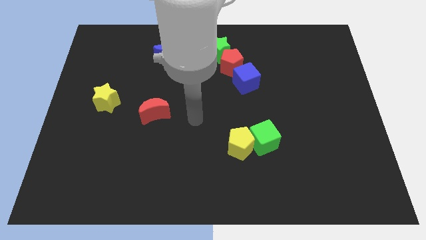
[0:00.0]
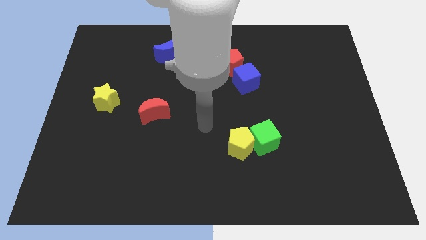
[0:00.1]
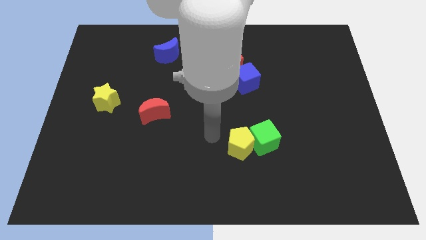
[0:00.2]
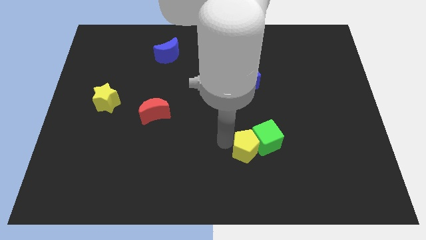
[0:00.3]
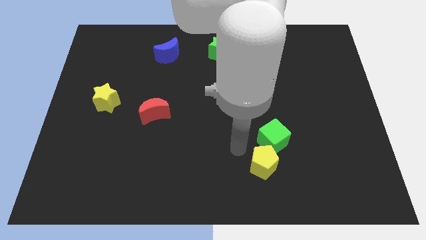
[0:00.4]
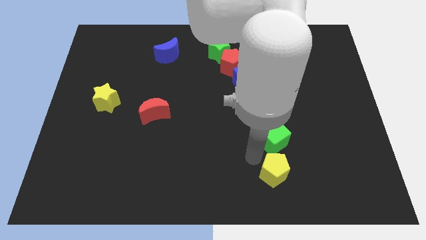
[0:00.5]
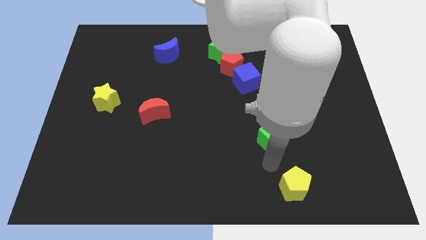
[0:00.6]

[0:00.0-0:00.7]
separate the green cube from the yellow pentagon

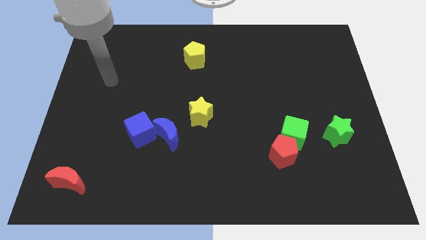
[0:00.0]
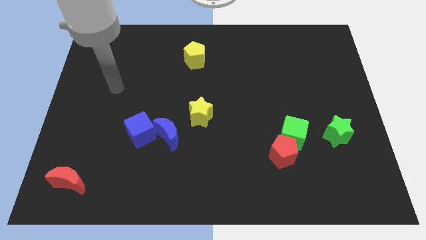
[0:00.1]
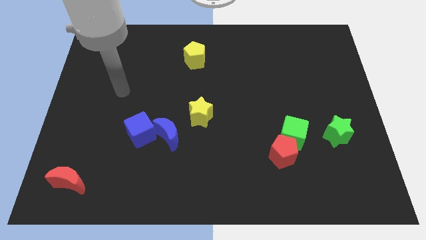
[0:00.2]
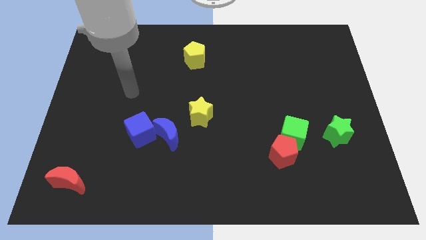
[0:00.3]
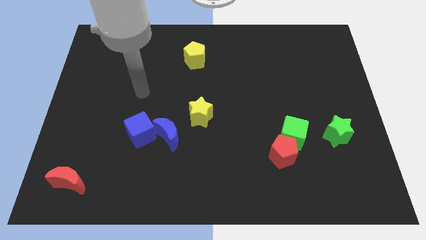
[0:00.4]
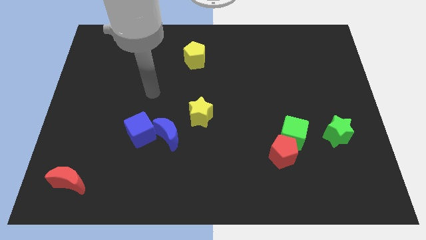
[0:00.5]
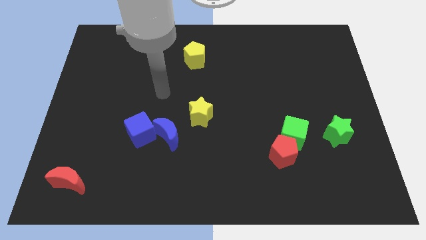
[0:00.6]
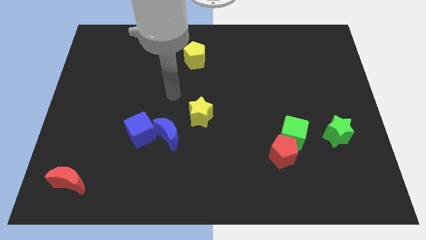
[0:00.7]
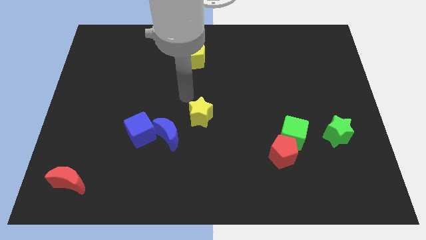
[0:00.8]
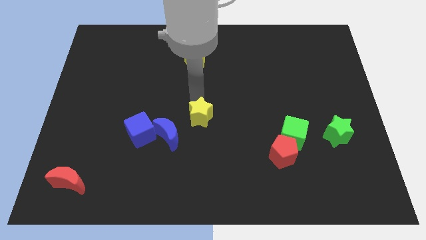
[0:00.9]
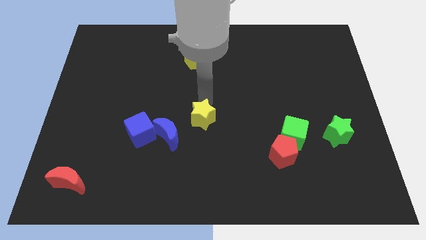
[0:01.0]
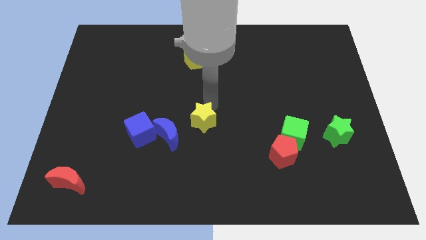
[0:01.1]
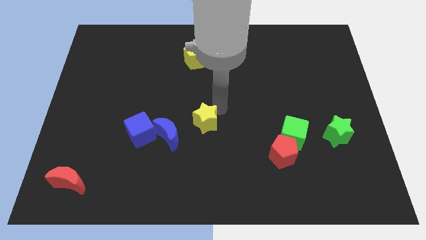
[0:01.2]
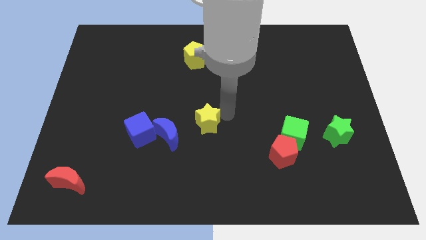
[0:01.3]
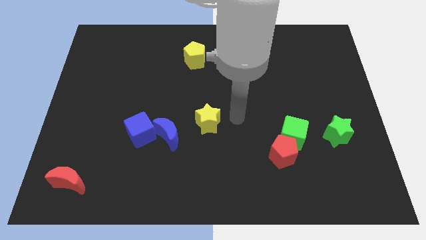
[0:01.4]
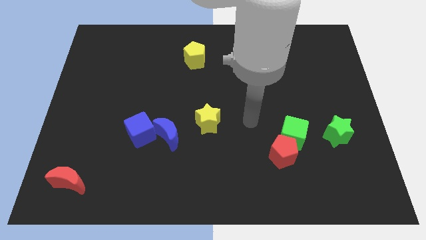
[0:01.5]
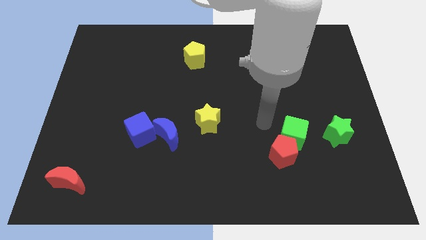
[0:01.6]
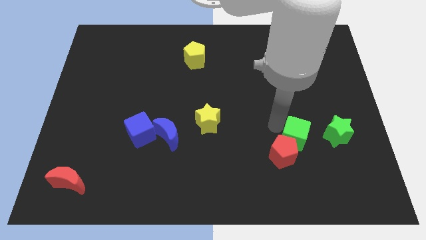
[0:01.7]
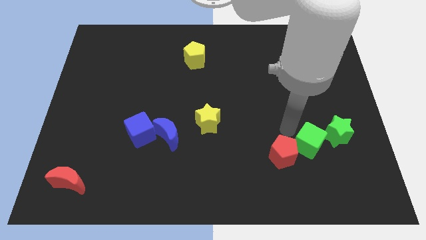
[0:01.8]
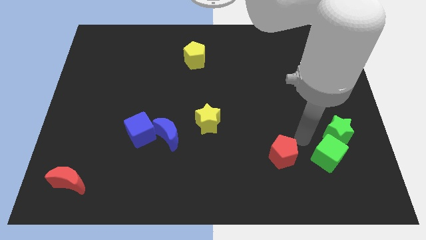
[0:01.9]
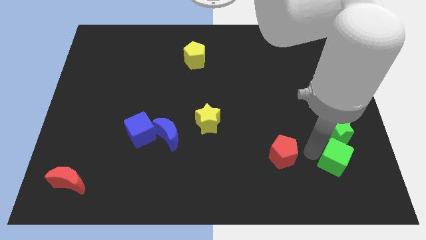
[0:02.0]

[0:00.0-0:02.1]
pull the red pentagon apart from the green cube

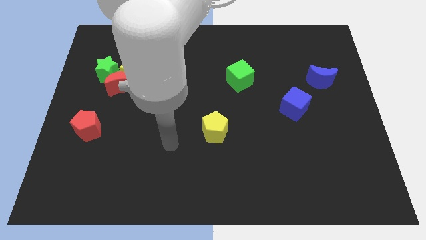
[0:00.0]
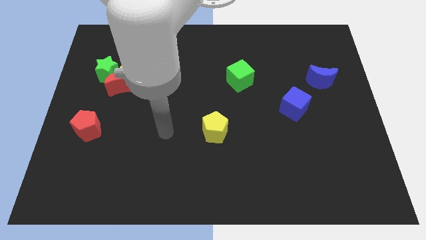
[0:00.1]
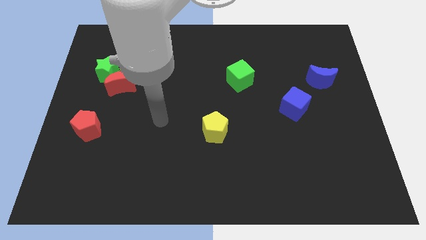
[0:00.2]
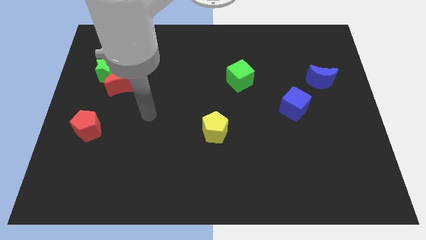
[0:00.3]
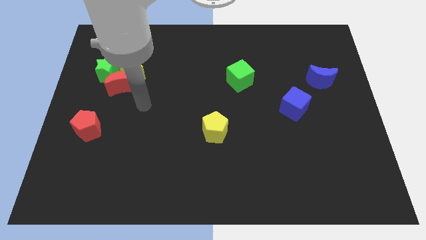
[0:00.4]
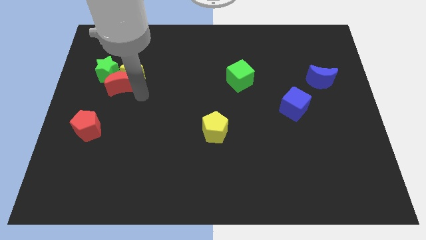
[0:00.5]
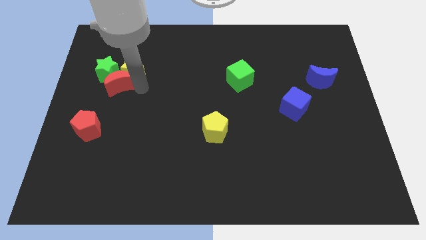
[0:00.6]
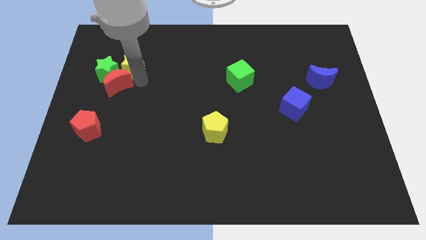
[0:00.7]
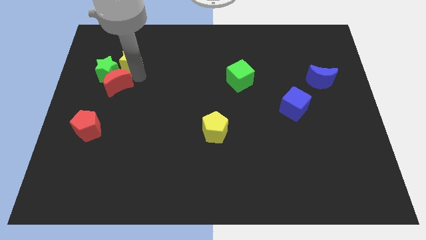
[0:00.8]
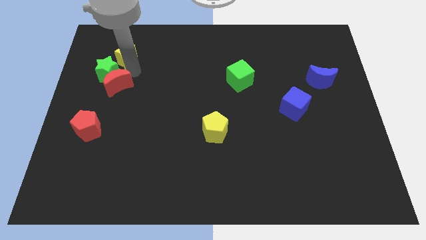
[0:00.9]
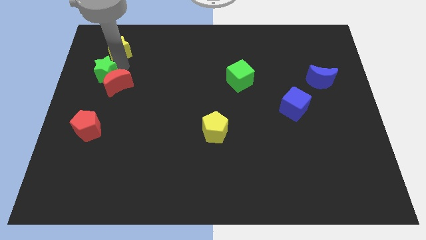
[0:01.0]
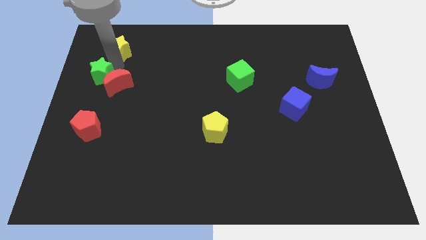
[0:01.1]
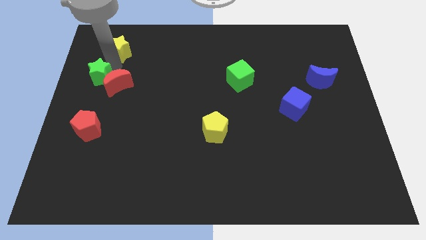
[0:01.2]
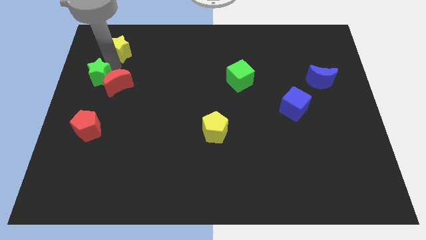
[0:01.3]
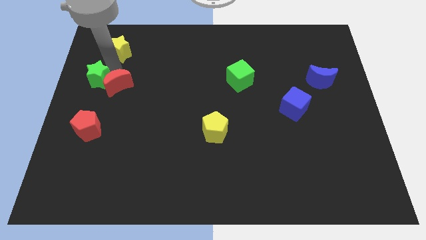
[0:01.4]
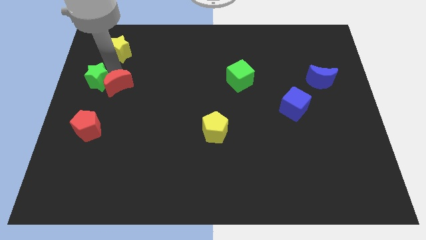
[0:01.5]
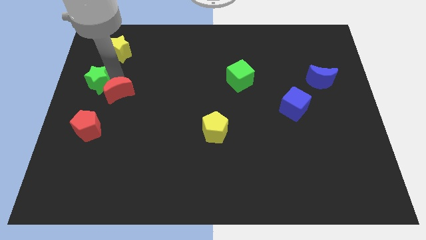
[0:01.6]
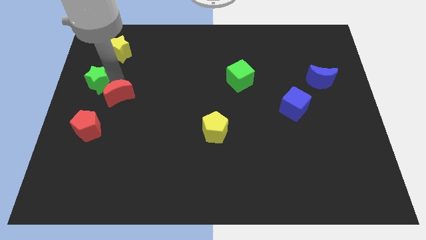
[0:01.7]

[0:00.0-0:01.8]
separate the red moon from the yellow star and green star

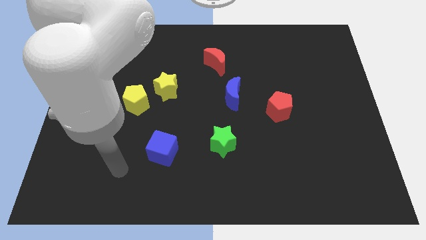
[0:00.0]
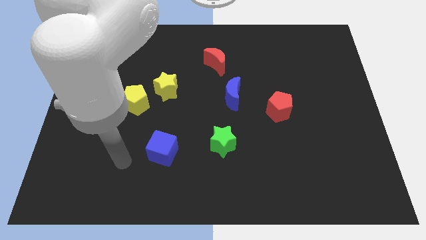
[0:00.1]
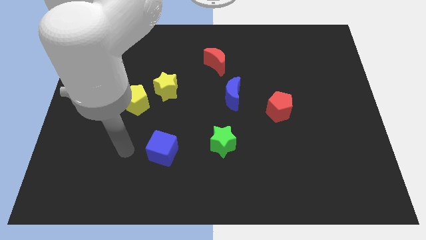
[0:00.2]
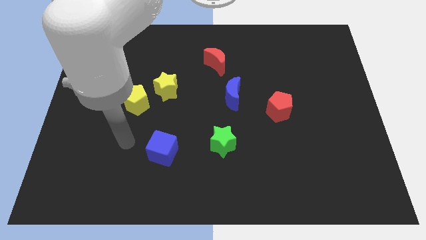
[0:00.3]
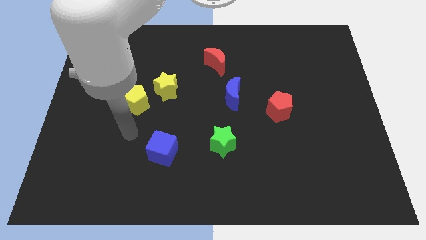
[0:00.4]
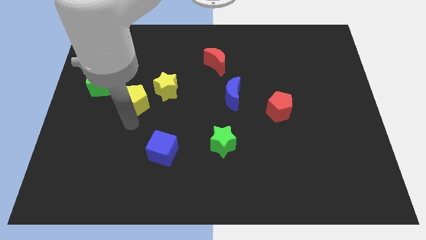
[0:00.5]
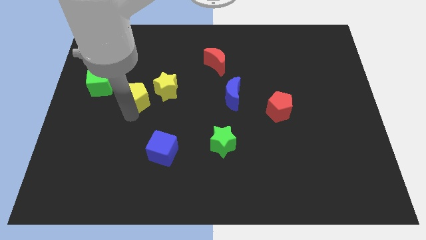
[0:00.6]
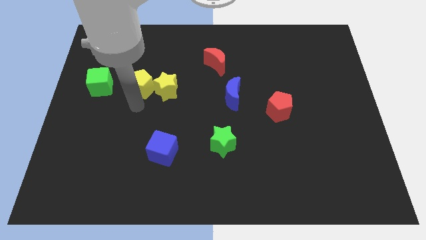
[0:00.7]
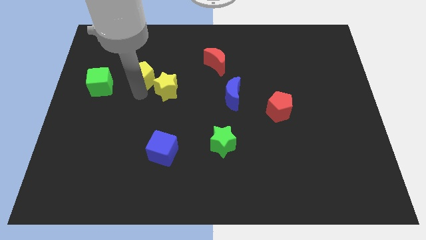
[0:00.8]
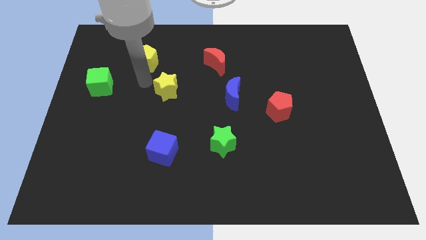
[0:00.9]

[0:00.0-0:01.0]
separate the yellow star from the yellow pentagon

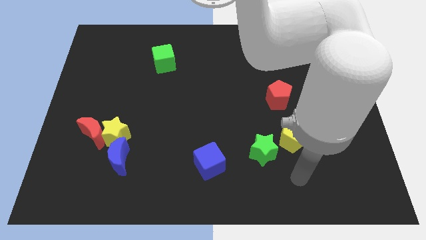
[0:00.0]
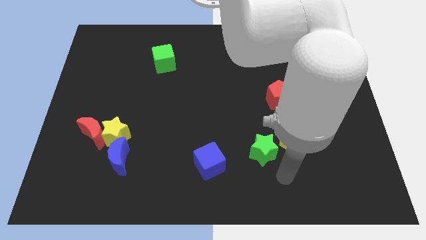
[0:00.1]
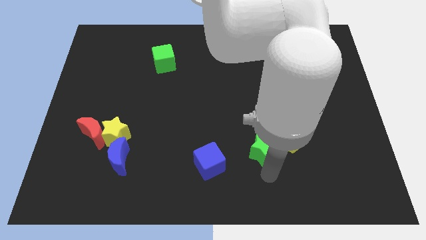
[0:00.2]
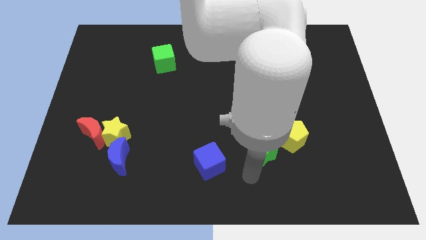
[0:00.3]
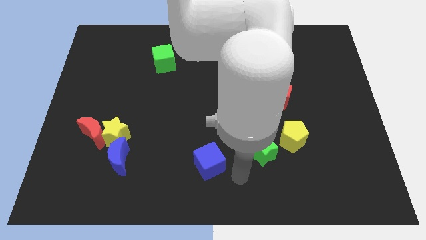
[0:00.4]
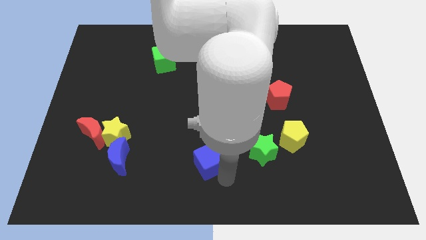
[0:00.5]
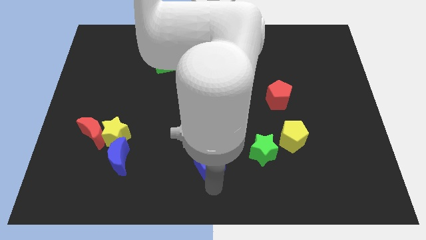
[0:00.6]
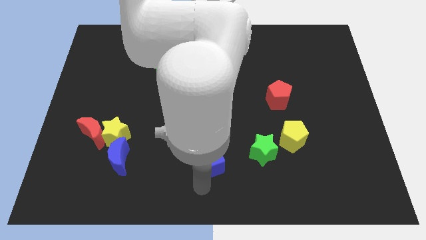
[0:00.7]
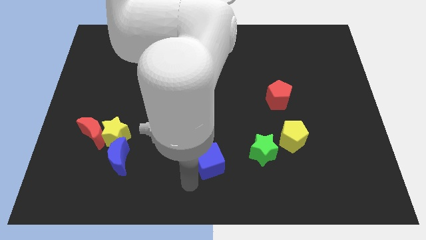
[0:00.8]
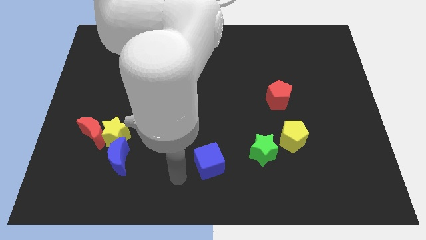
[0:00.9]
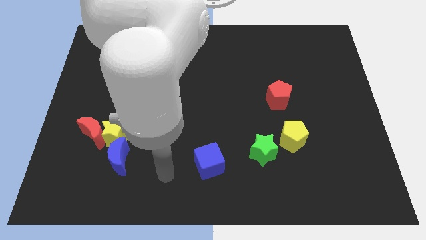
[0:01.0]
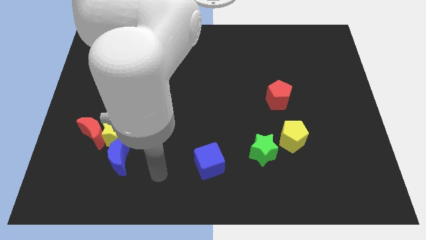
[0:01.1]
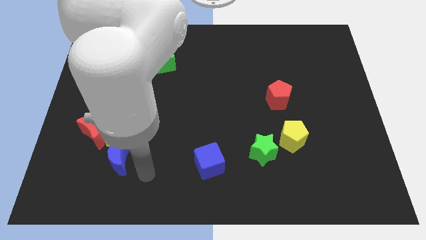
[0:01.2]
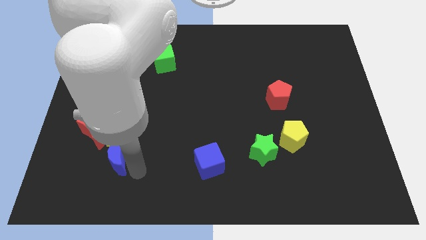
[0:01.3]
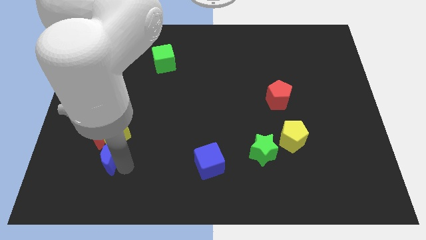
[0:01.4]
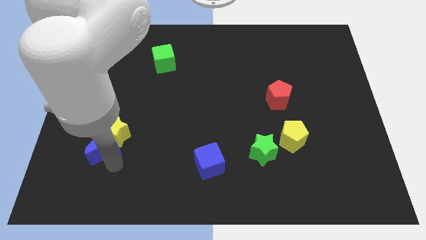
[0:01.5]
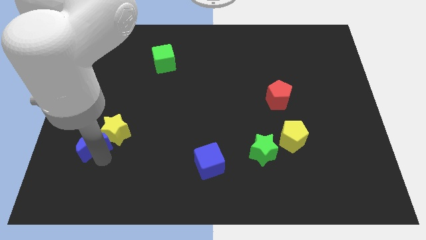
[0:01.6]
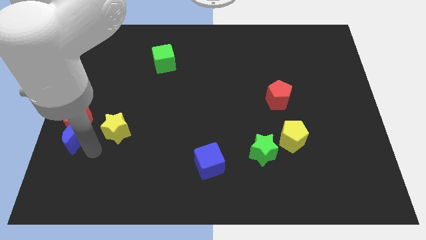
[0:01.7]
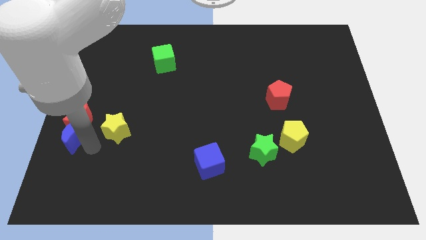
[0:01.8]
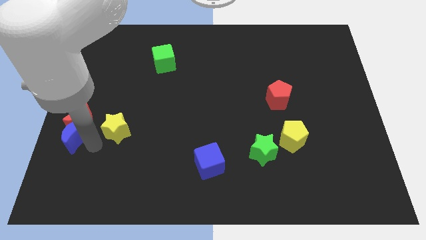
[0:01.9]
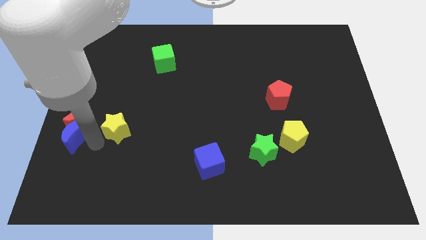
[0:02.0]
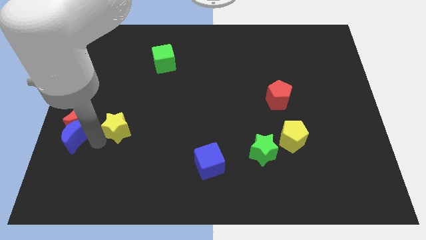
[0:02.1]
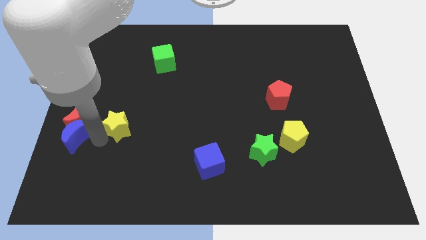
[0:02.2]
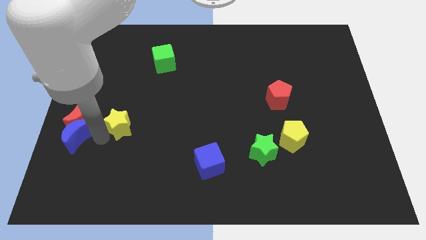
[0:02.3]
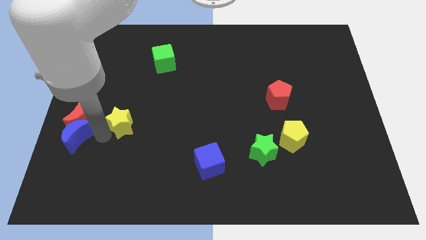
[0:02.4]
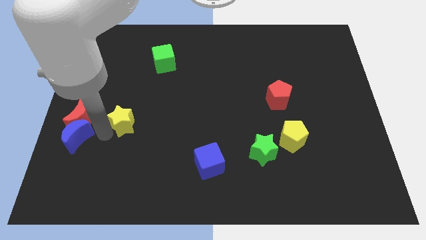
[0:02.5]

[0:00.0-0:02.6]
separate the yellow star from the red moon and blue moon

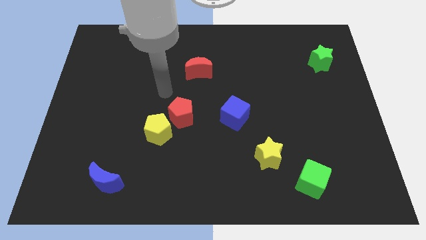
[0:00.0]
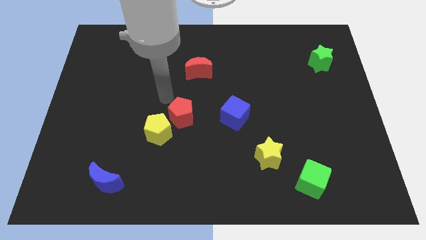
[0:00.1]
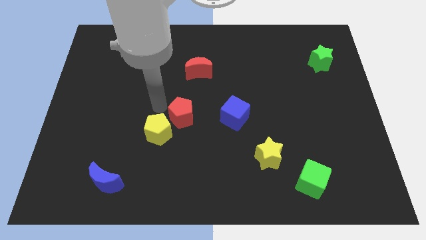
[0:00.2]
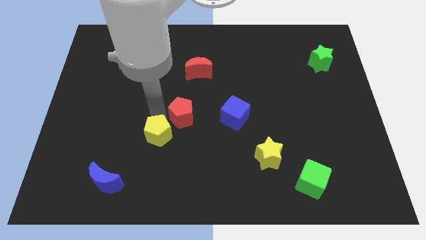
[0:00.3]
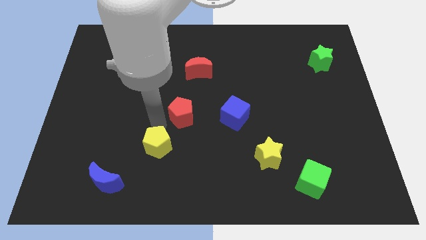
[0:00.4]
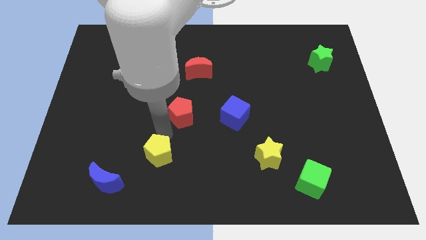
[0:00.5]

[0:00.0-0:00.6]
move the red pentagon away from the yellow pentagon

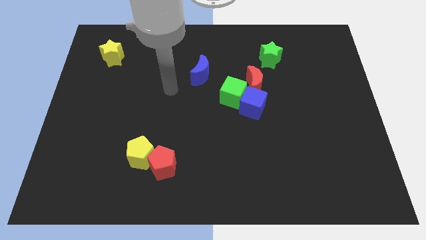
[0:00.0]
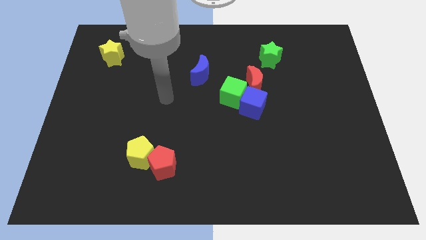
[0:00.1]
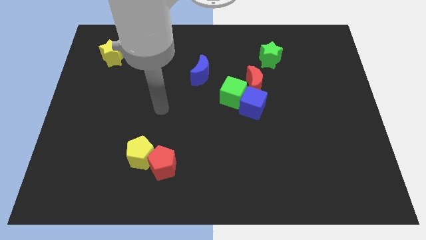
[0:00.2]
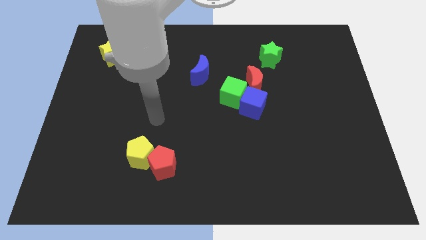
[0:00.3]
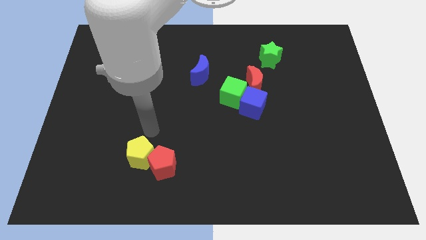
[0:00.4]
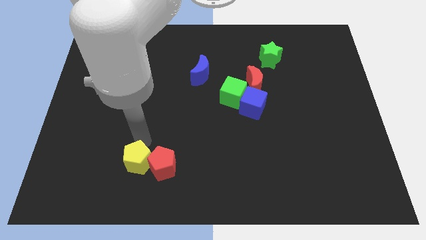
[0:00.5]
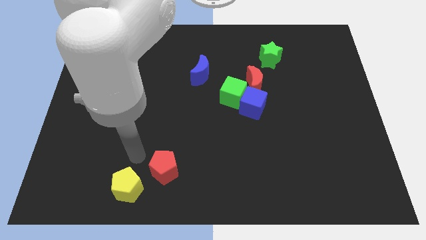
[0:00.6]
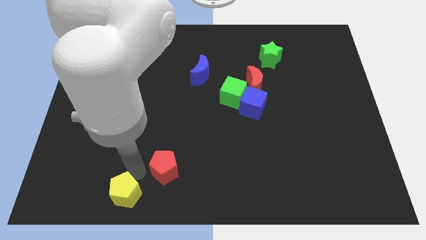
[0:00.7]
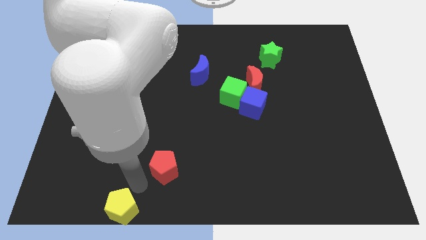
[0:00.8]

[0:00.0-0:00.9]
pull the red pentagon apart from the yellow pentagon
